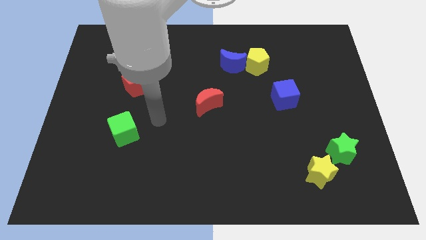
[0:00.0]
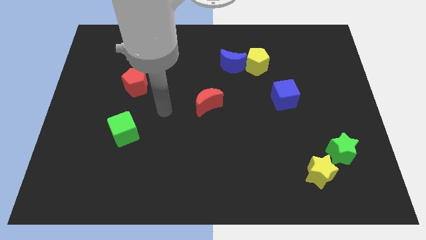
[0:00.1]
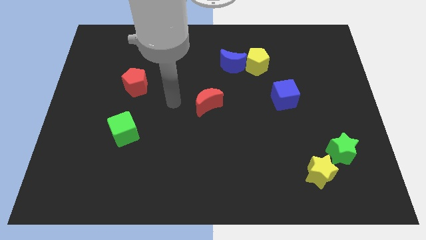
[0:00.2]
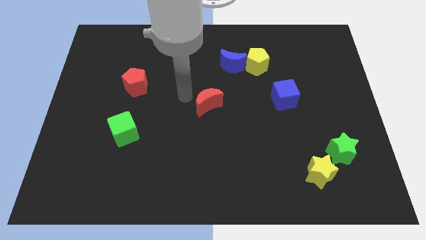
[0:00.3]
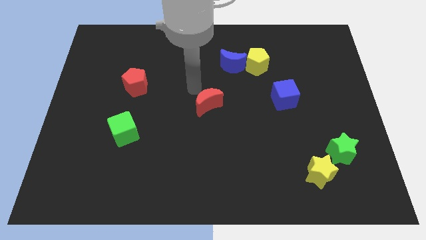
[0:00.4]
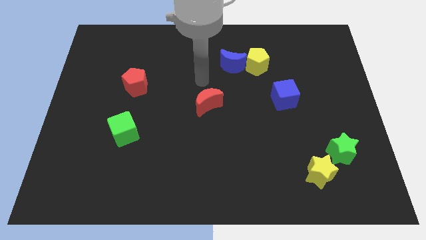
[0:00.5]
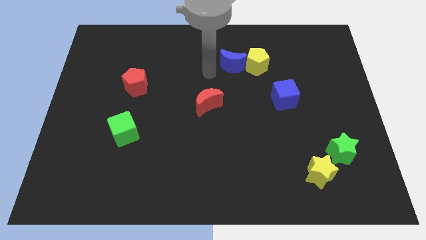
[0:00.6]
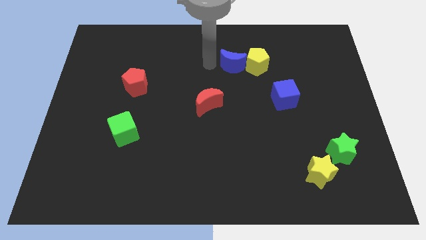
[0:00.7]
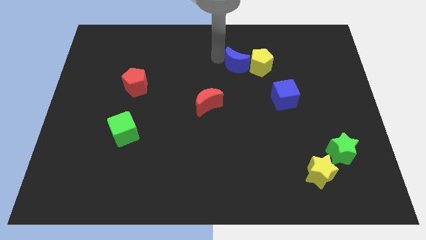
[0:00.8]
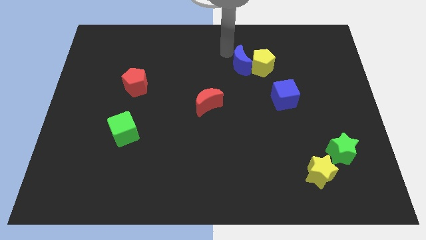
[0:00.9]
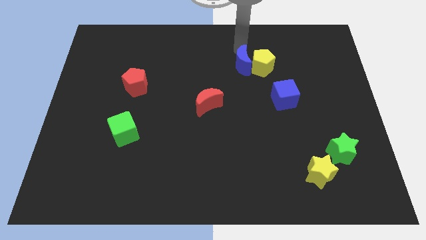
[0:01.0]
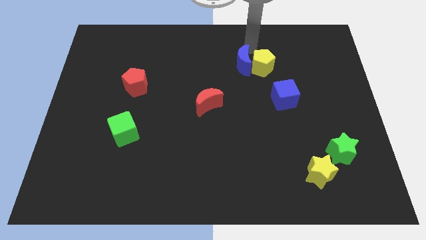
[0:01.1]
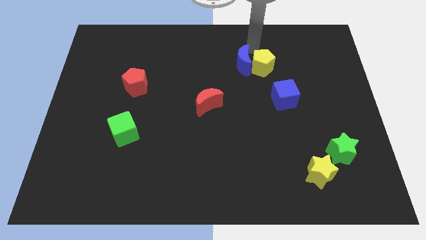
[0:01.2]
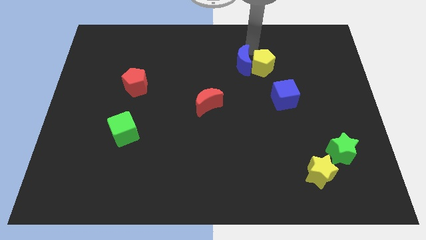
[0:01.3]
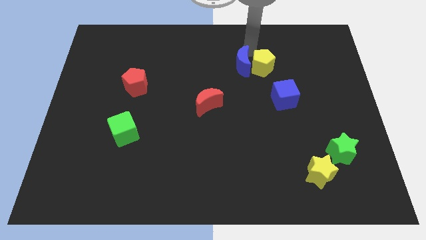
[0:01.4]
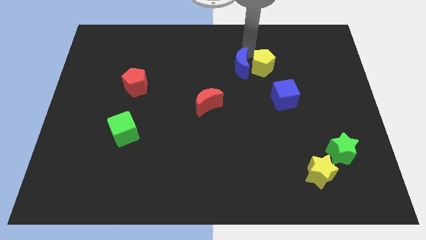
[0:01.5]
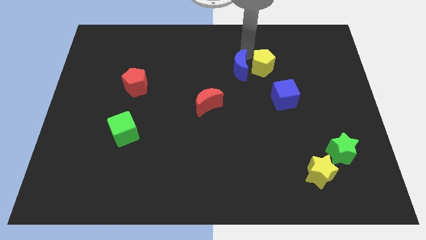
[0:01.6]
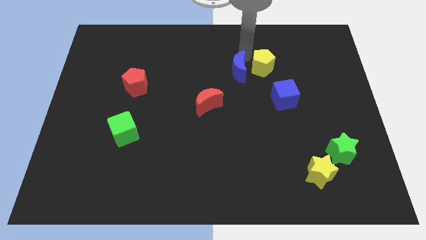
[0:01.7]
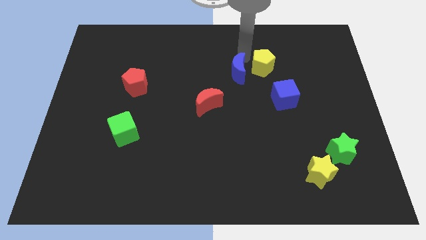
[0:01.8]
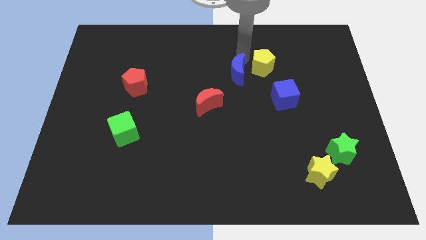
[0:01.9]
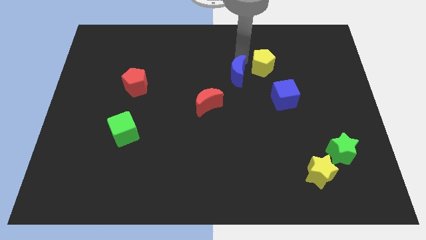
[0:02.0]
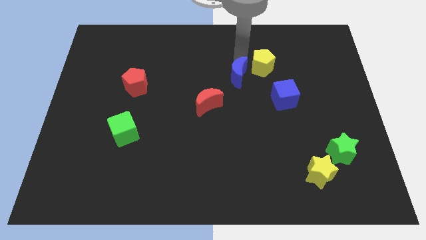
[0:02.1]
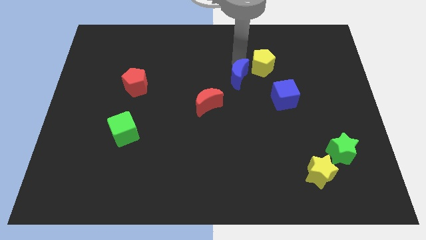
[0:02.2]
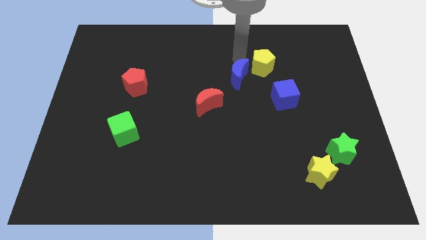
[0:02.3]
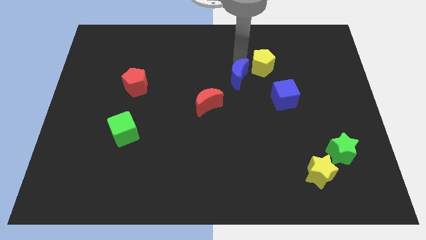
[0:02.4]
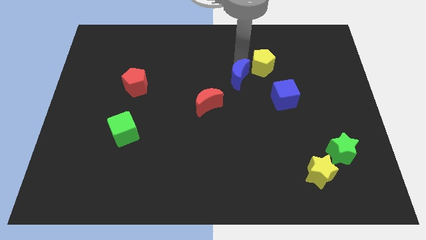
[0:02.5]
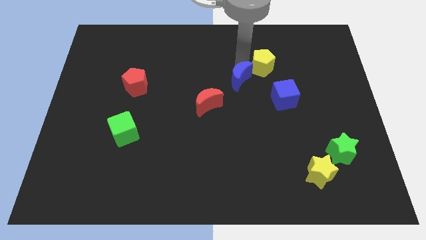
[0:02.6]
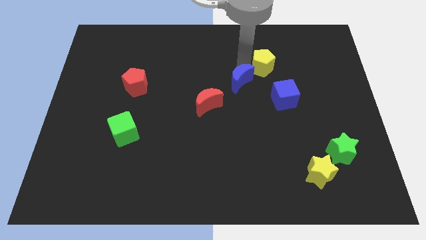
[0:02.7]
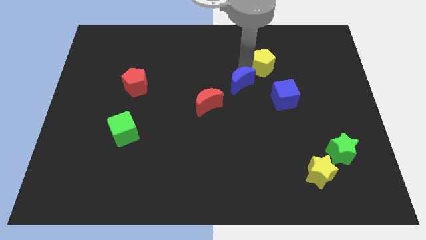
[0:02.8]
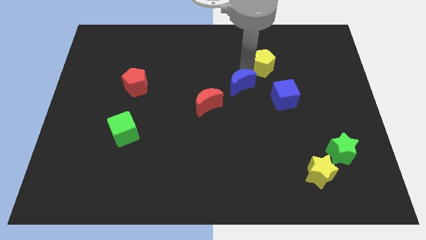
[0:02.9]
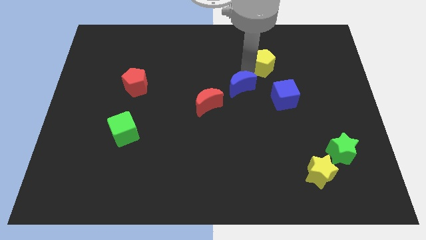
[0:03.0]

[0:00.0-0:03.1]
slide the blue moon downwards a little

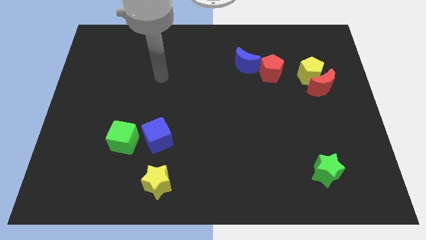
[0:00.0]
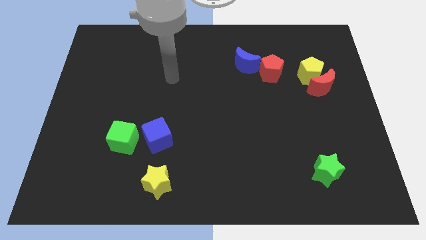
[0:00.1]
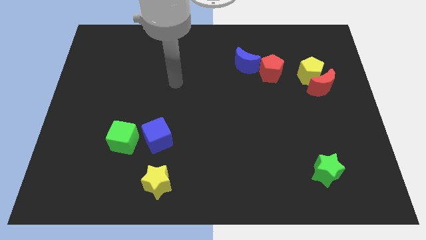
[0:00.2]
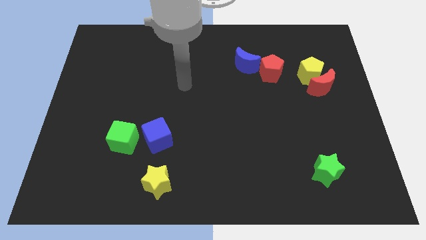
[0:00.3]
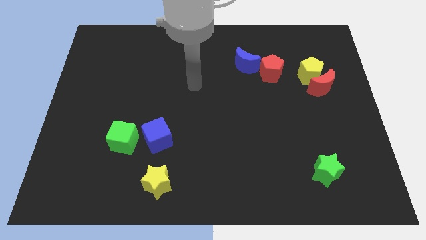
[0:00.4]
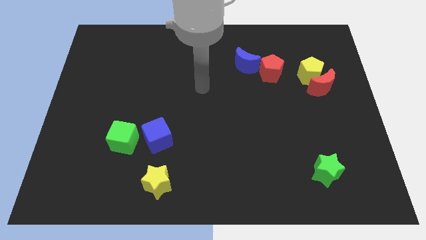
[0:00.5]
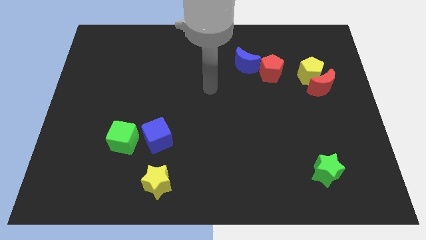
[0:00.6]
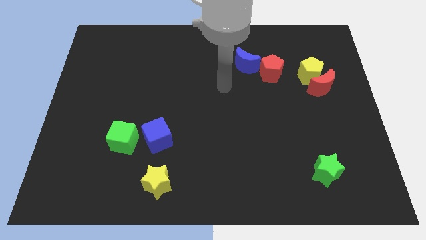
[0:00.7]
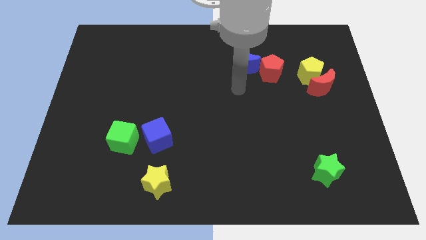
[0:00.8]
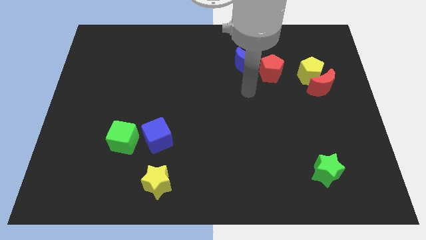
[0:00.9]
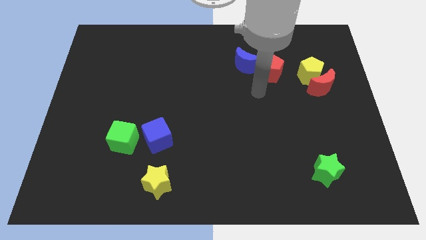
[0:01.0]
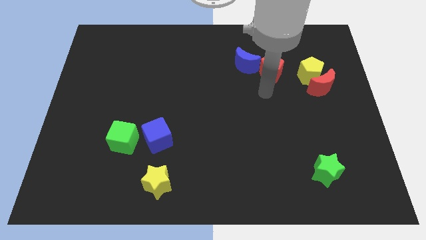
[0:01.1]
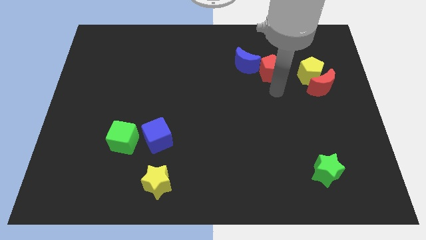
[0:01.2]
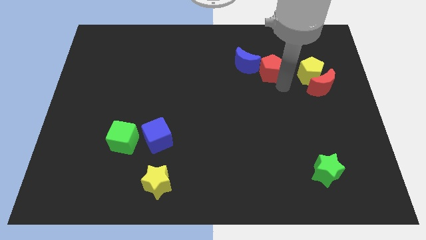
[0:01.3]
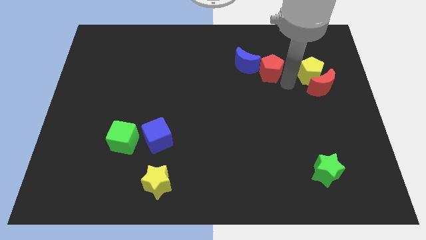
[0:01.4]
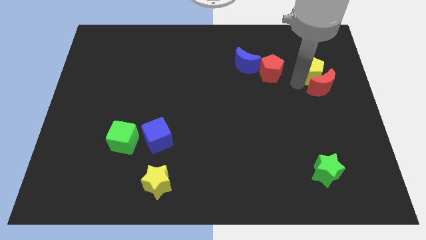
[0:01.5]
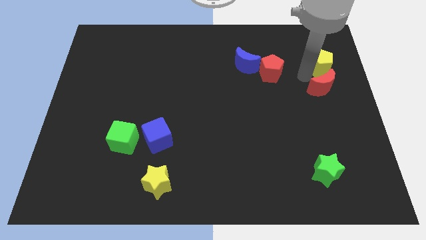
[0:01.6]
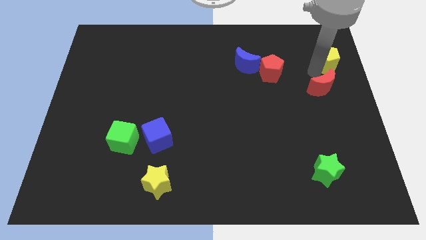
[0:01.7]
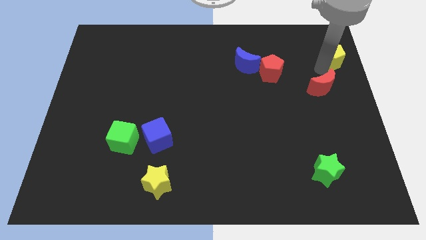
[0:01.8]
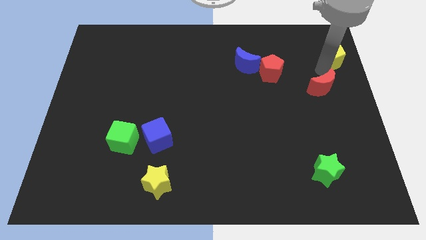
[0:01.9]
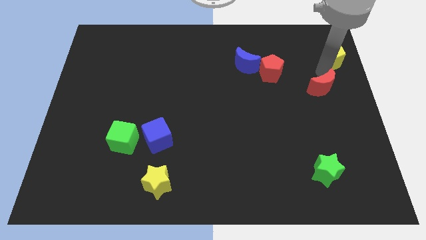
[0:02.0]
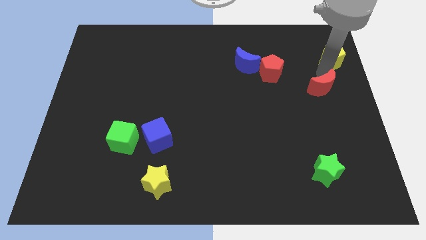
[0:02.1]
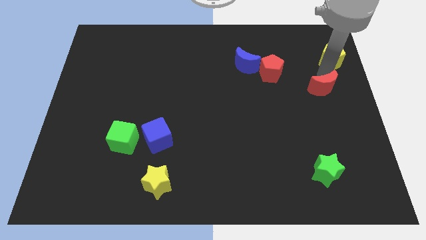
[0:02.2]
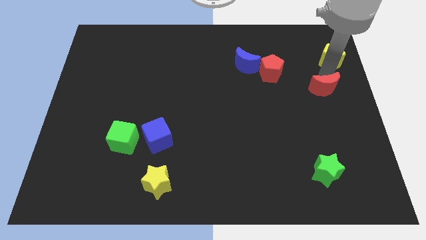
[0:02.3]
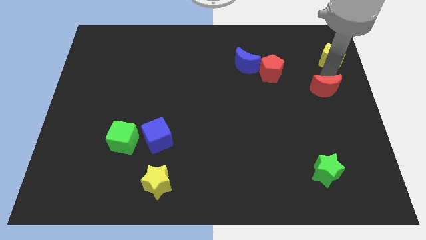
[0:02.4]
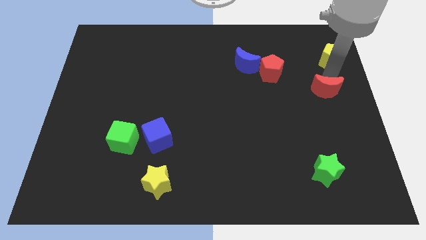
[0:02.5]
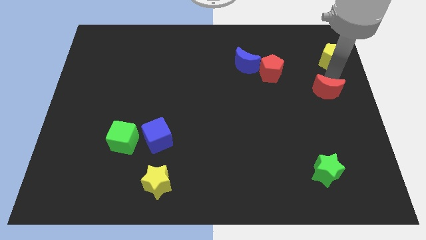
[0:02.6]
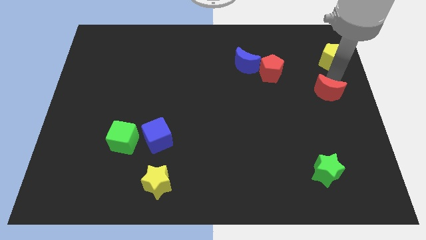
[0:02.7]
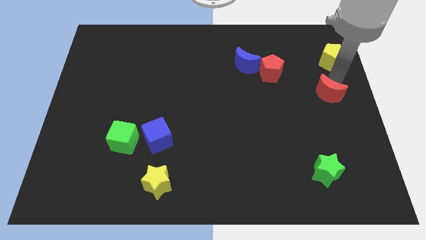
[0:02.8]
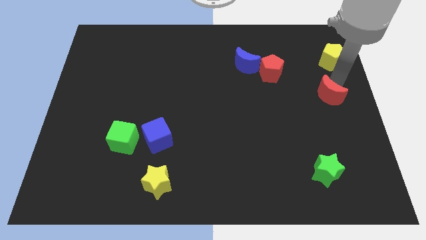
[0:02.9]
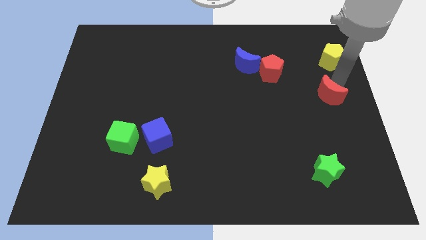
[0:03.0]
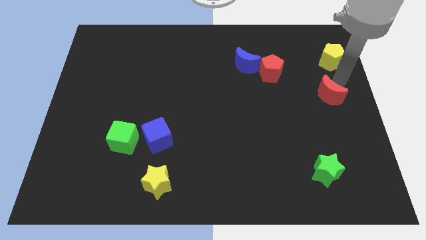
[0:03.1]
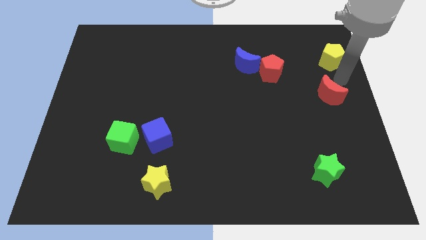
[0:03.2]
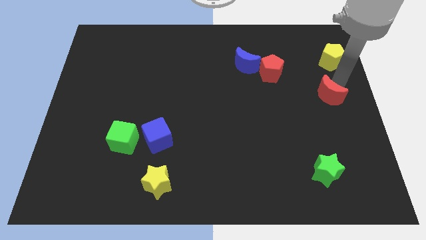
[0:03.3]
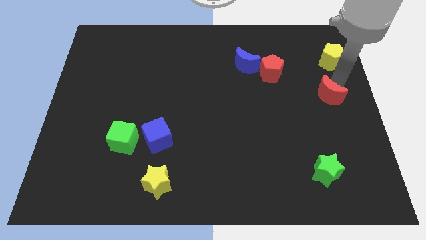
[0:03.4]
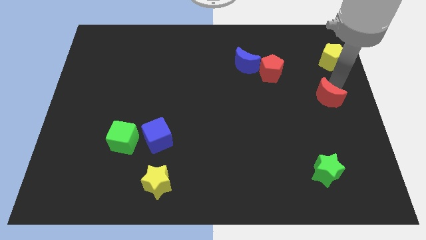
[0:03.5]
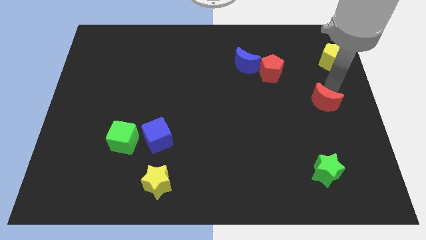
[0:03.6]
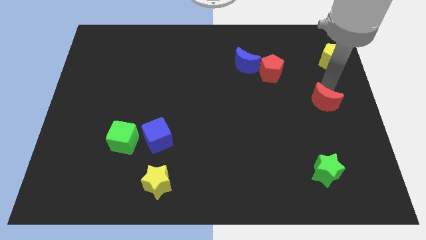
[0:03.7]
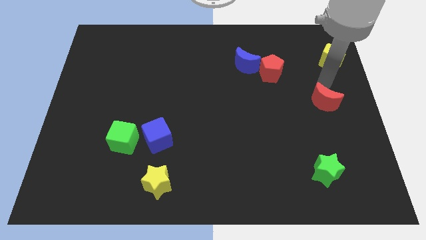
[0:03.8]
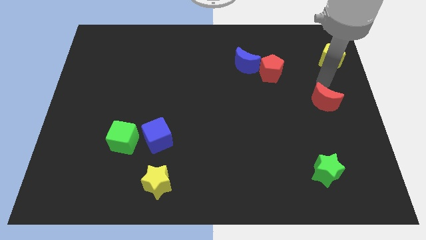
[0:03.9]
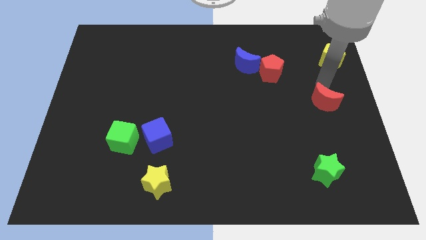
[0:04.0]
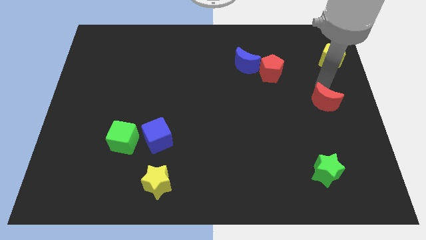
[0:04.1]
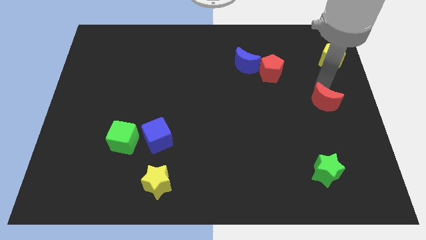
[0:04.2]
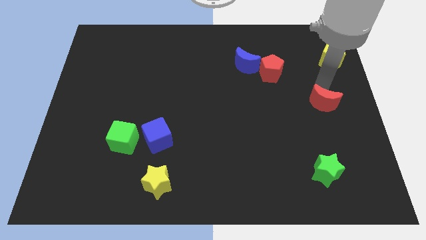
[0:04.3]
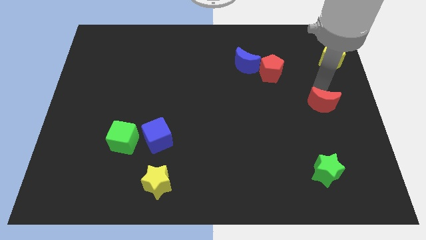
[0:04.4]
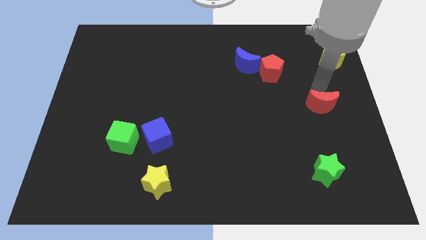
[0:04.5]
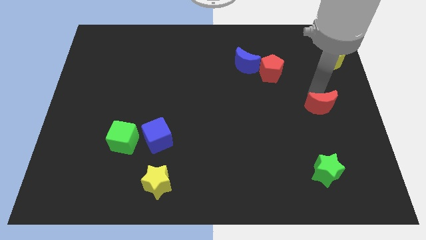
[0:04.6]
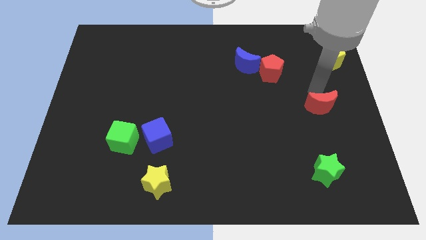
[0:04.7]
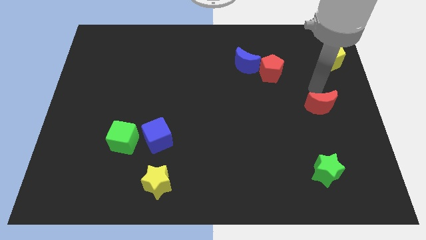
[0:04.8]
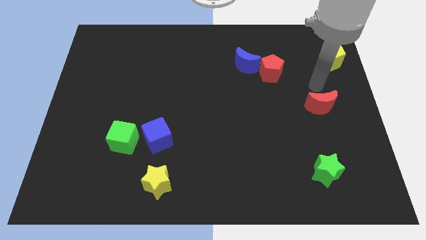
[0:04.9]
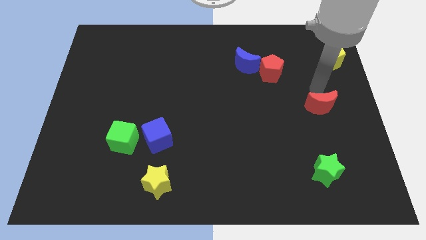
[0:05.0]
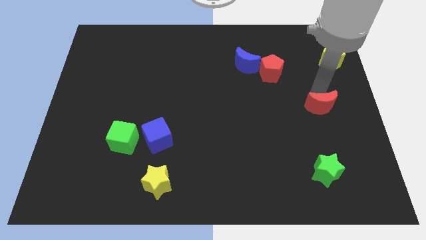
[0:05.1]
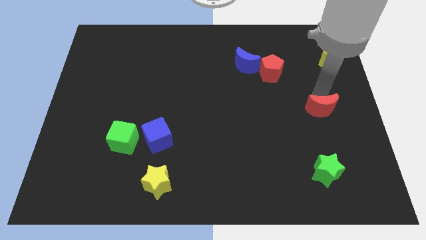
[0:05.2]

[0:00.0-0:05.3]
push the red moon downwards a little
